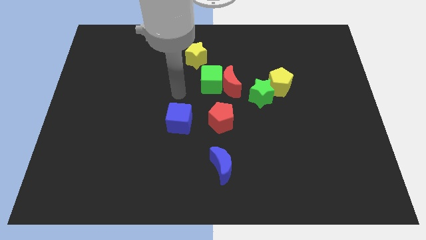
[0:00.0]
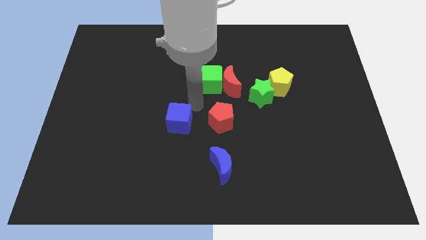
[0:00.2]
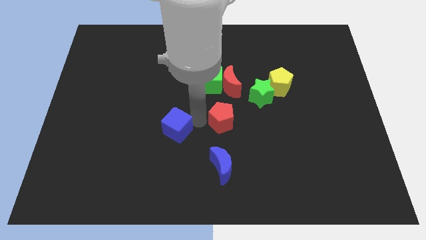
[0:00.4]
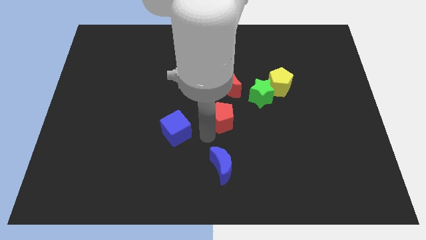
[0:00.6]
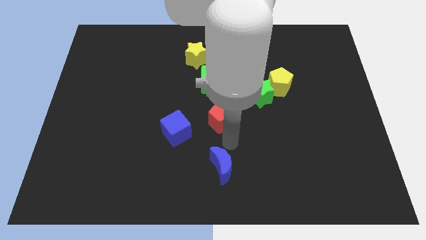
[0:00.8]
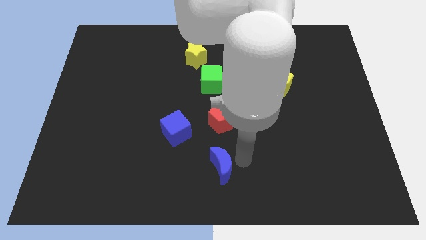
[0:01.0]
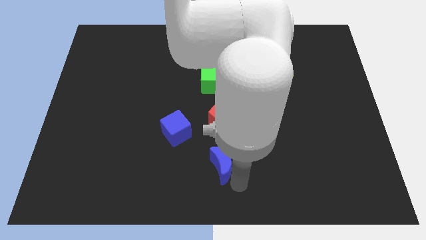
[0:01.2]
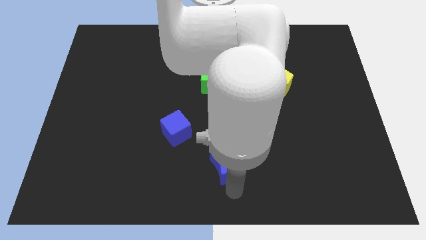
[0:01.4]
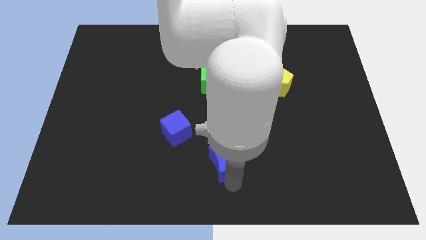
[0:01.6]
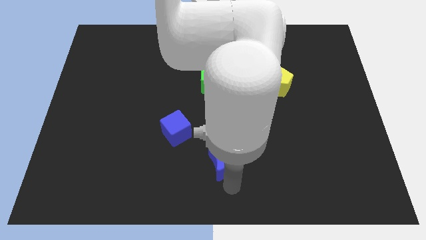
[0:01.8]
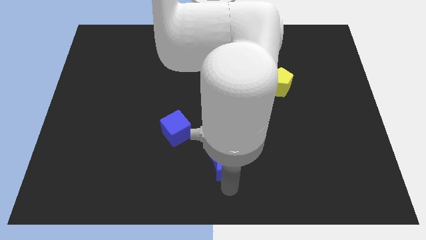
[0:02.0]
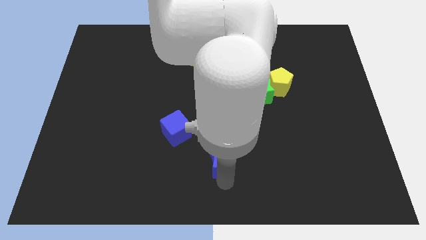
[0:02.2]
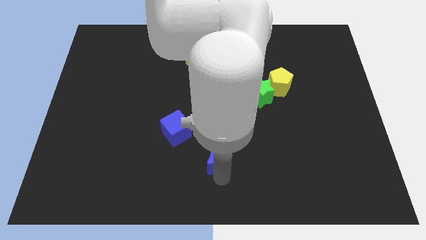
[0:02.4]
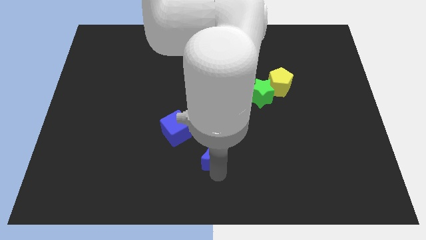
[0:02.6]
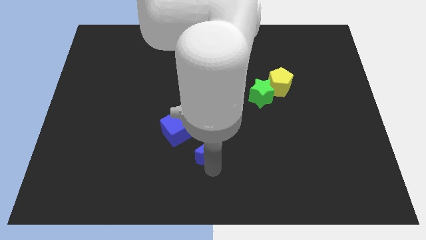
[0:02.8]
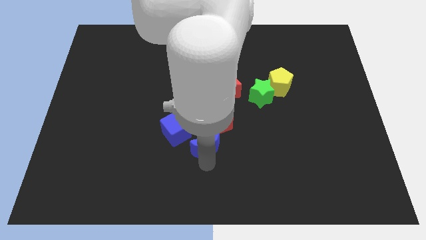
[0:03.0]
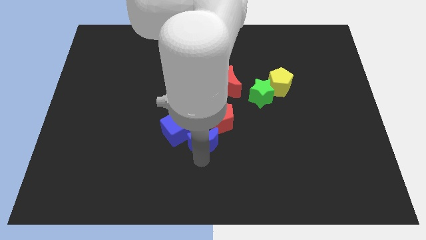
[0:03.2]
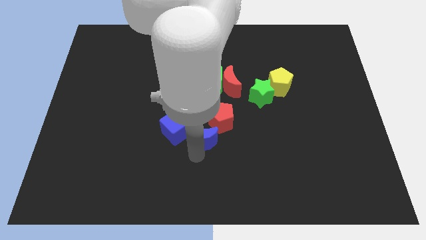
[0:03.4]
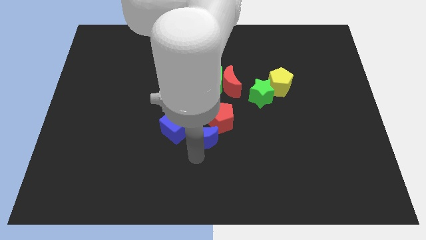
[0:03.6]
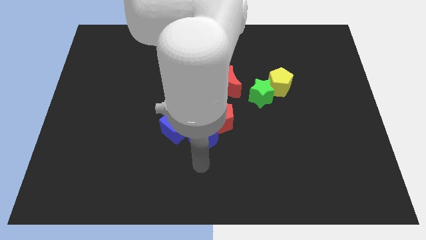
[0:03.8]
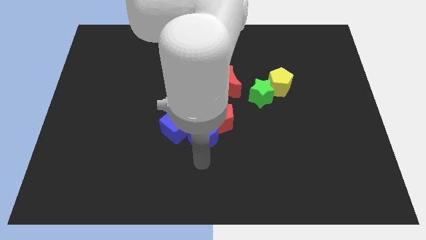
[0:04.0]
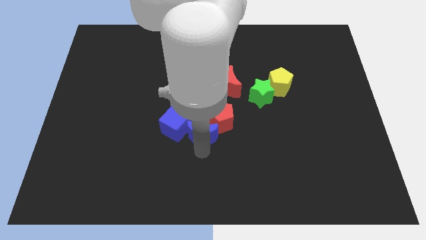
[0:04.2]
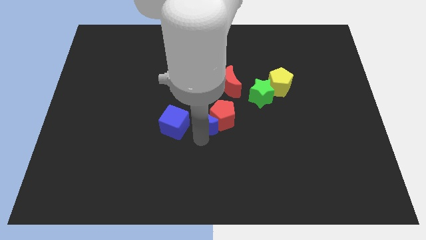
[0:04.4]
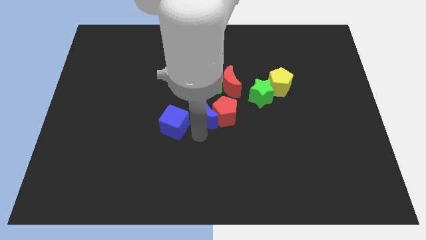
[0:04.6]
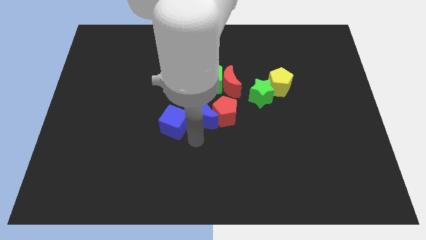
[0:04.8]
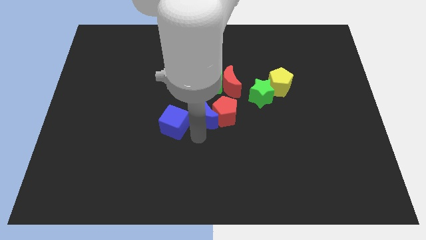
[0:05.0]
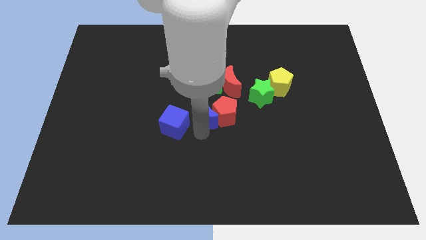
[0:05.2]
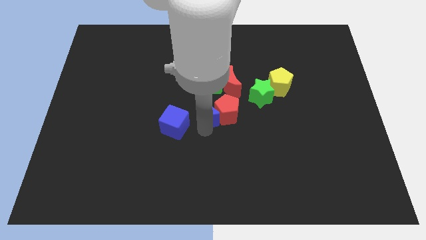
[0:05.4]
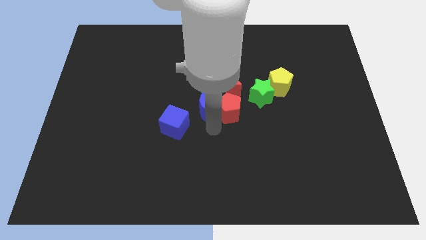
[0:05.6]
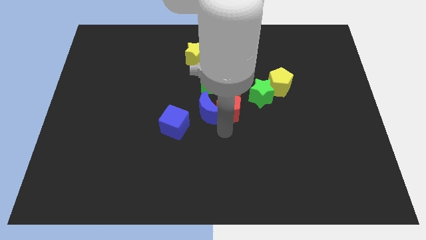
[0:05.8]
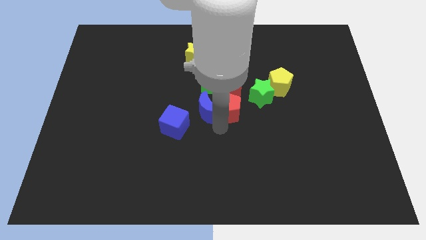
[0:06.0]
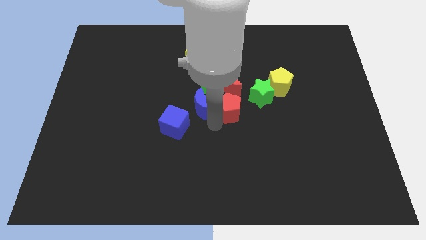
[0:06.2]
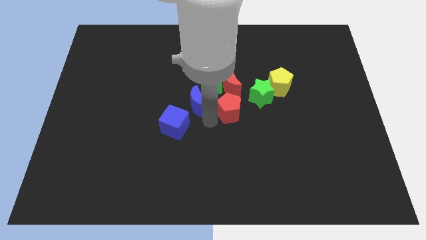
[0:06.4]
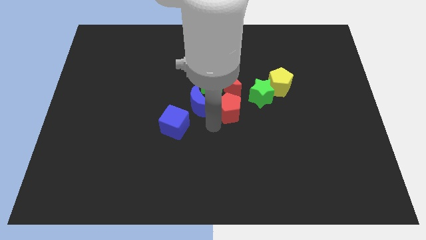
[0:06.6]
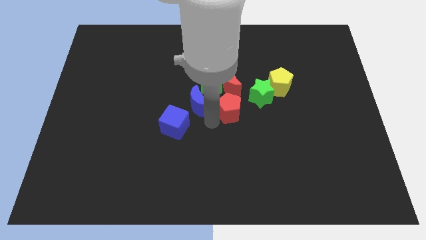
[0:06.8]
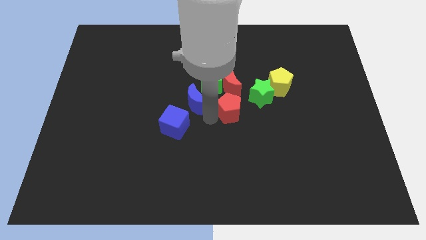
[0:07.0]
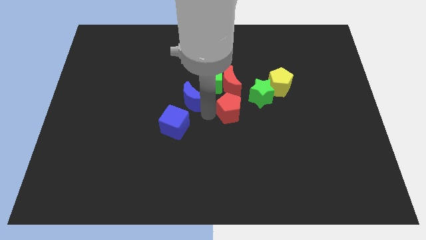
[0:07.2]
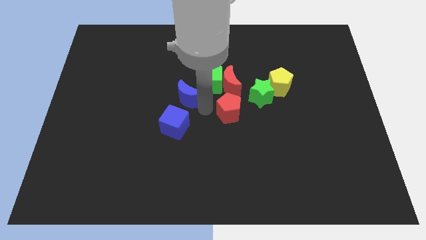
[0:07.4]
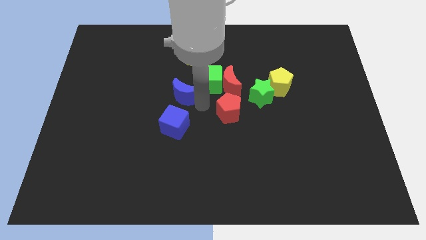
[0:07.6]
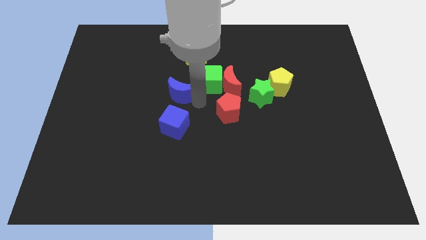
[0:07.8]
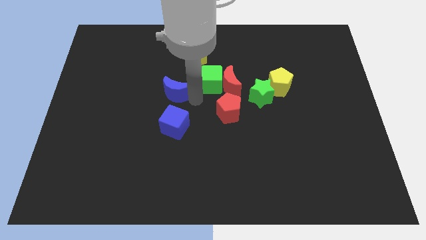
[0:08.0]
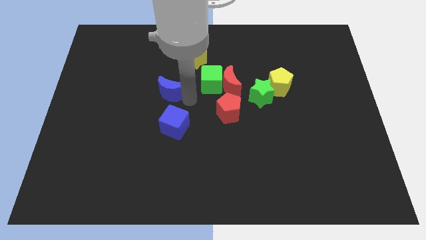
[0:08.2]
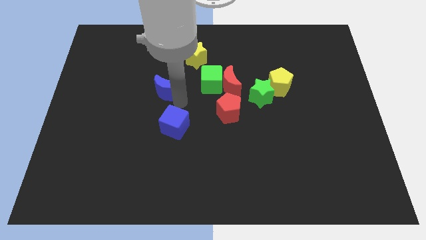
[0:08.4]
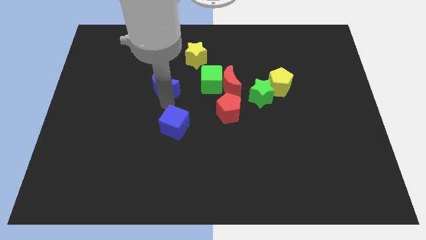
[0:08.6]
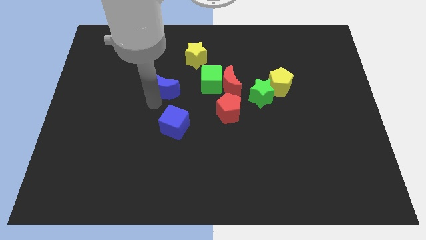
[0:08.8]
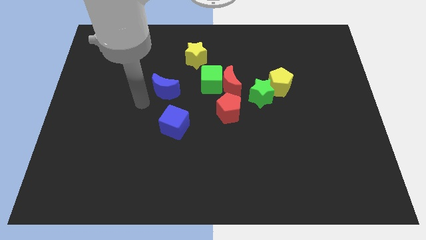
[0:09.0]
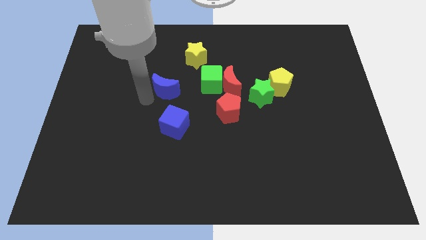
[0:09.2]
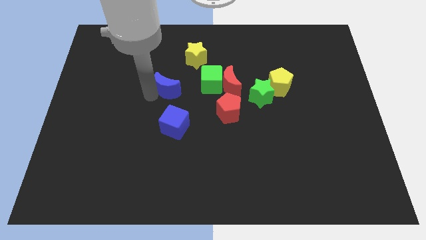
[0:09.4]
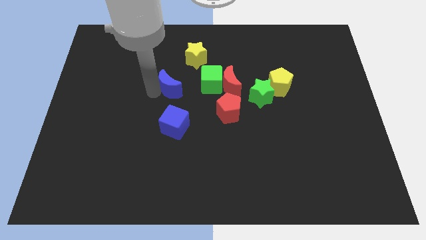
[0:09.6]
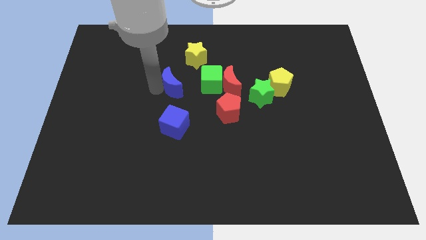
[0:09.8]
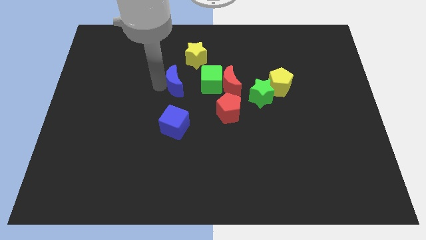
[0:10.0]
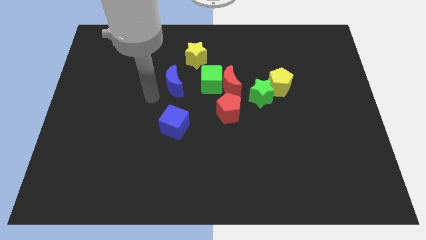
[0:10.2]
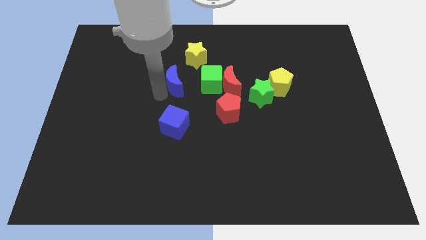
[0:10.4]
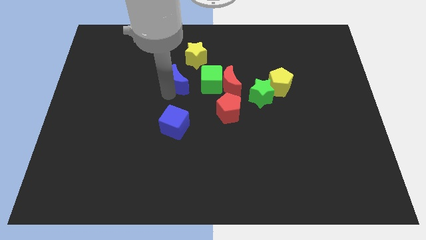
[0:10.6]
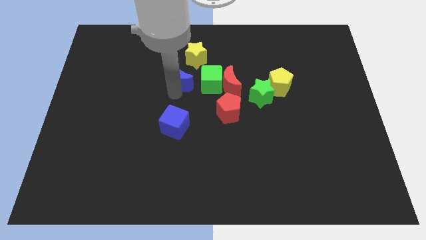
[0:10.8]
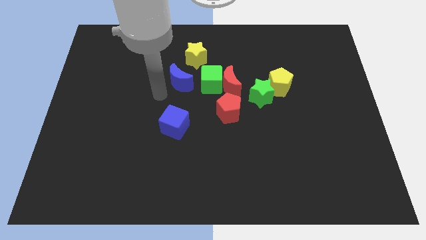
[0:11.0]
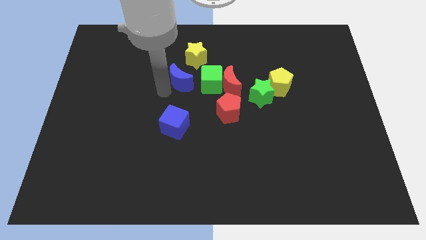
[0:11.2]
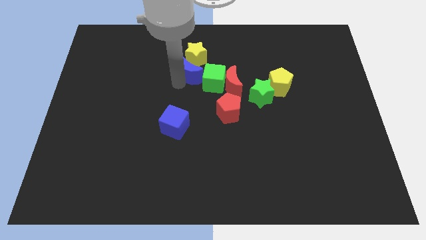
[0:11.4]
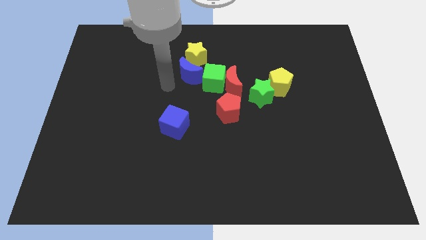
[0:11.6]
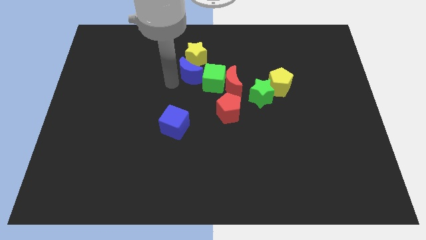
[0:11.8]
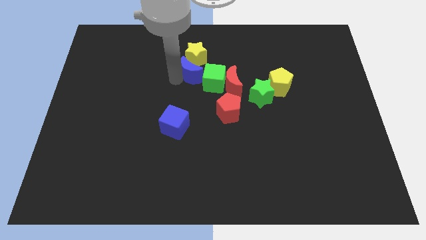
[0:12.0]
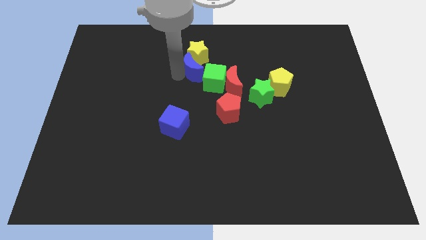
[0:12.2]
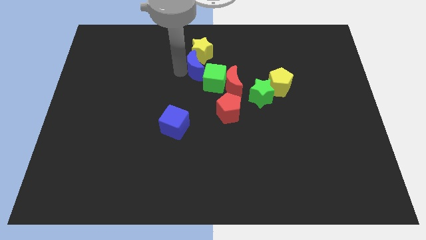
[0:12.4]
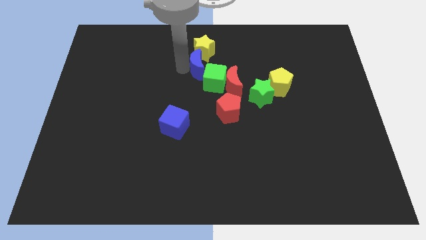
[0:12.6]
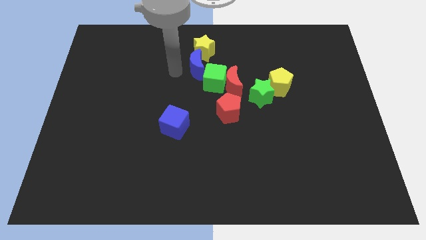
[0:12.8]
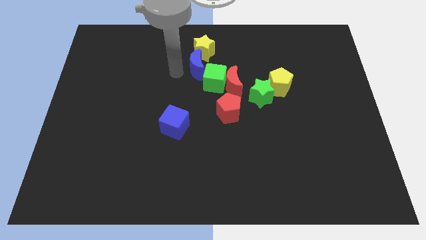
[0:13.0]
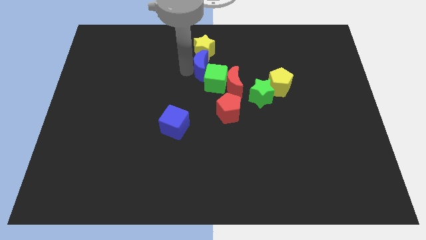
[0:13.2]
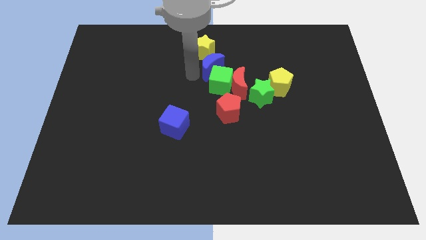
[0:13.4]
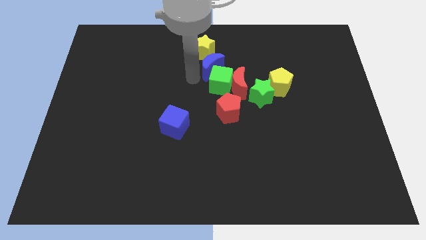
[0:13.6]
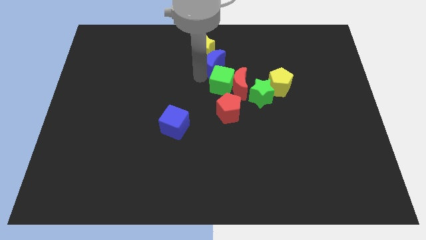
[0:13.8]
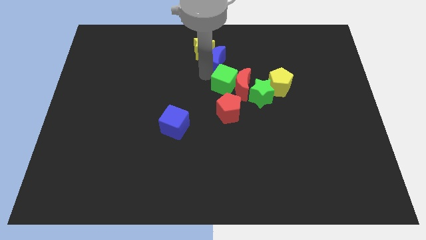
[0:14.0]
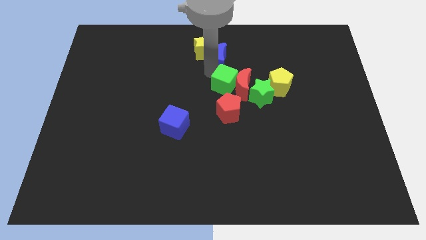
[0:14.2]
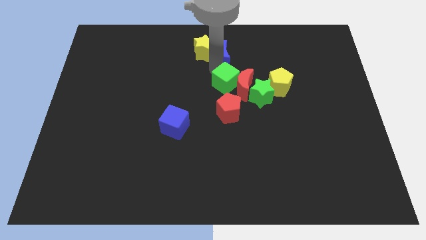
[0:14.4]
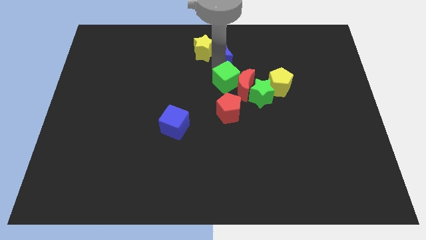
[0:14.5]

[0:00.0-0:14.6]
slide the blue moon to the top of the red moon

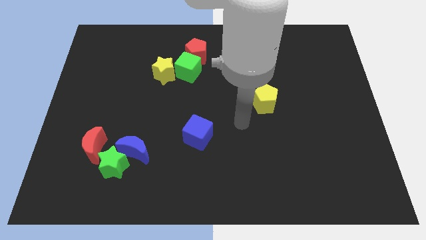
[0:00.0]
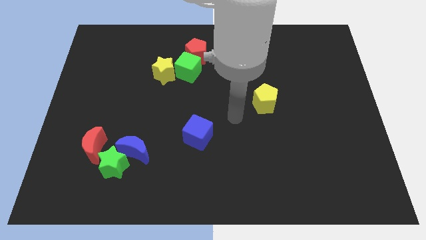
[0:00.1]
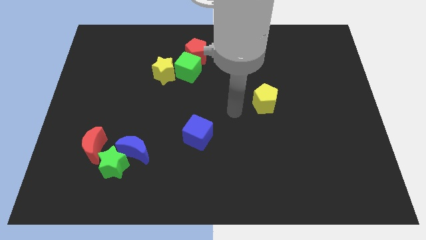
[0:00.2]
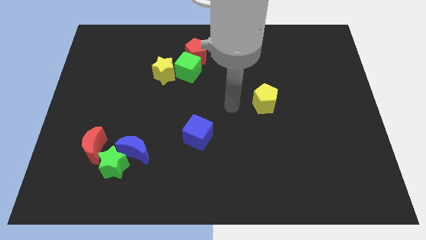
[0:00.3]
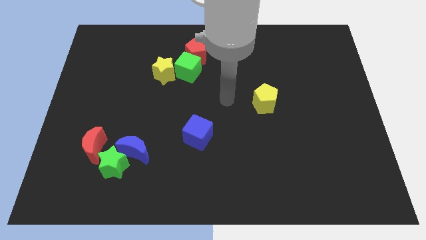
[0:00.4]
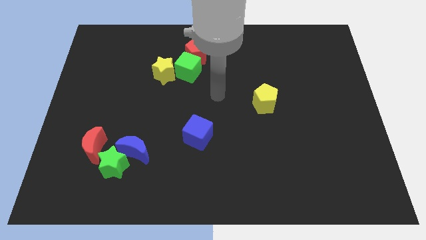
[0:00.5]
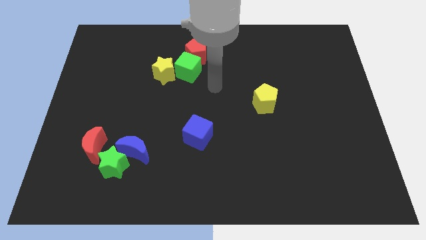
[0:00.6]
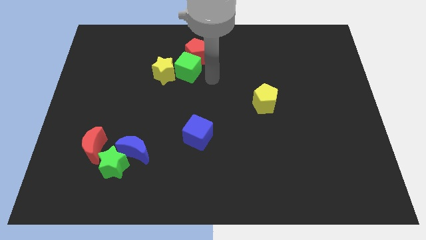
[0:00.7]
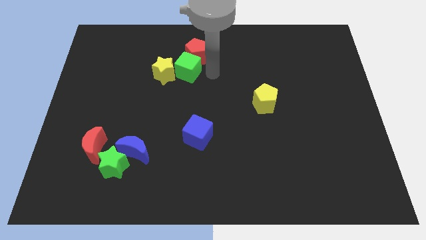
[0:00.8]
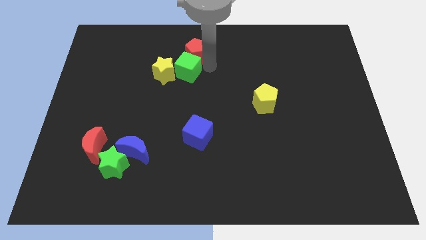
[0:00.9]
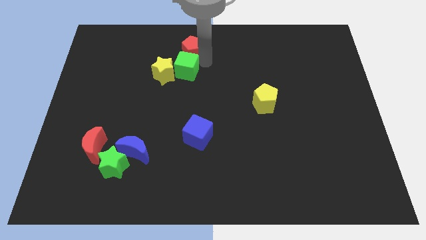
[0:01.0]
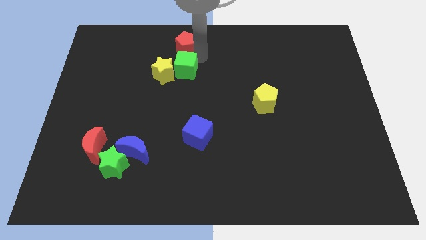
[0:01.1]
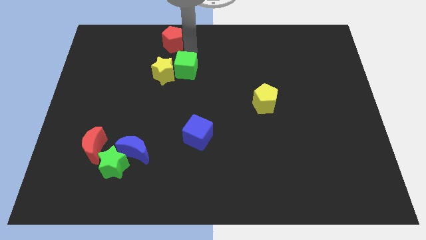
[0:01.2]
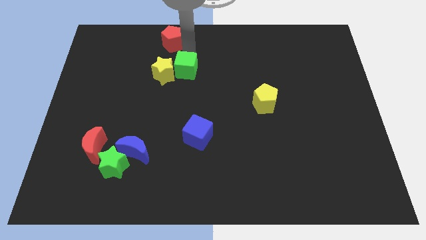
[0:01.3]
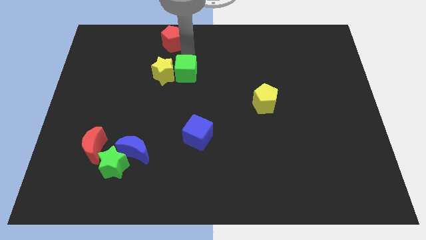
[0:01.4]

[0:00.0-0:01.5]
push the green cube to the bottom right of the yellow star
